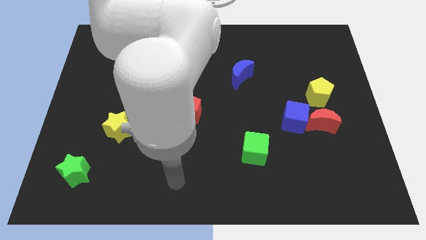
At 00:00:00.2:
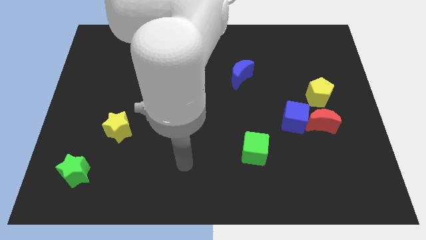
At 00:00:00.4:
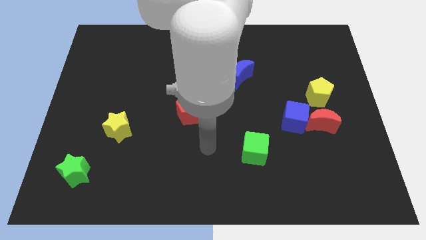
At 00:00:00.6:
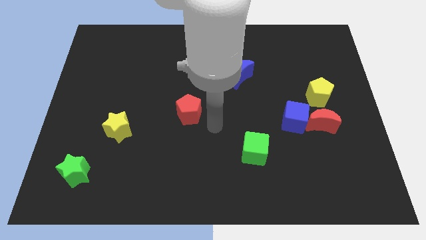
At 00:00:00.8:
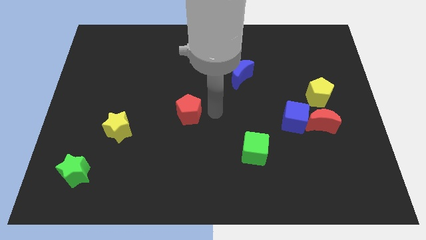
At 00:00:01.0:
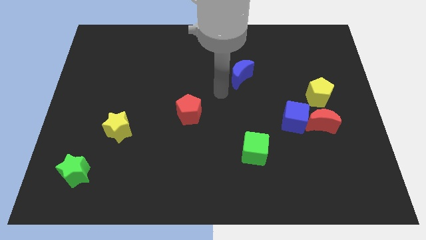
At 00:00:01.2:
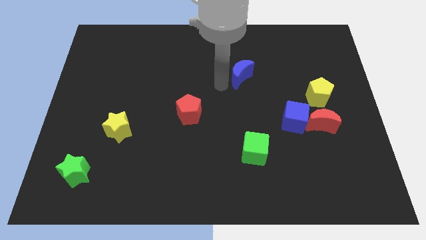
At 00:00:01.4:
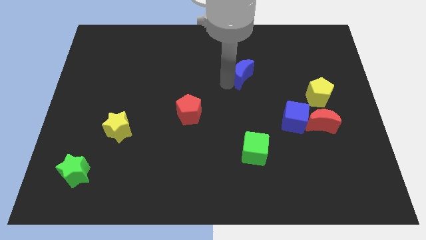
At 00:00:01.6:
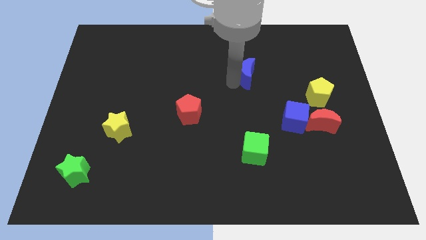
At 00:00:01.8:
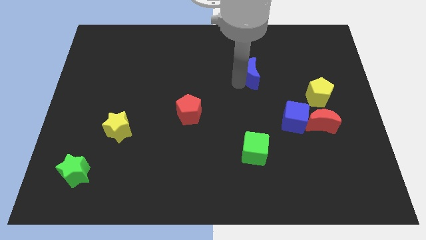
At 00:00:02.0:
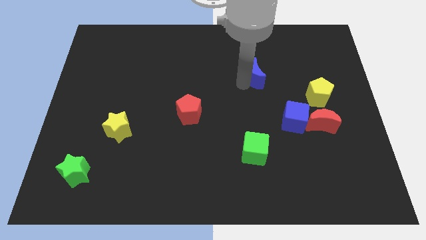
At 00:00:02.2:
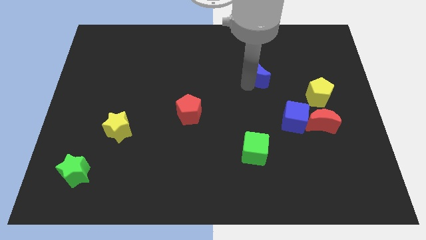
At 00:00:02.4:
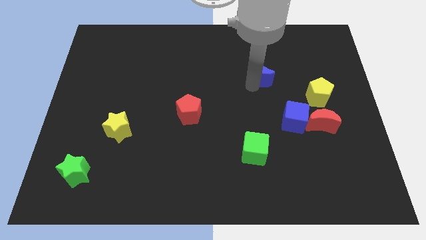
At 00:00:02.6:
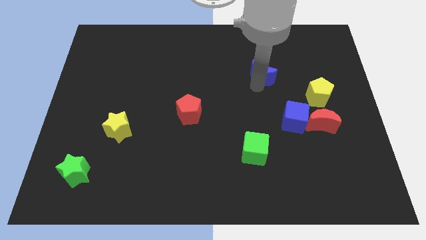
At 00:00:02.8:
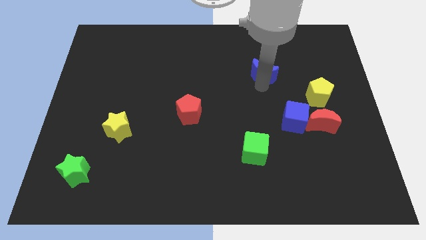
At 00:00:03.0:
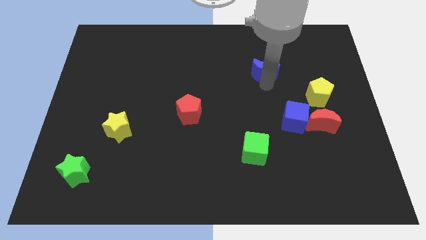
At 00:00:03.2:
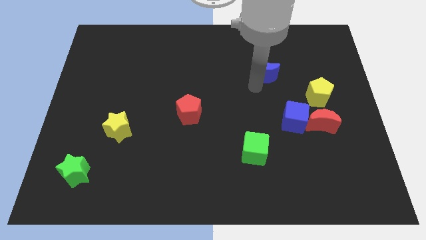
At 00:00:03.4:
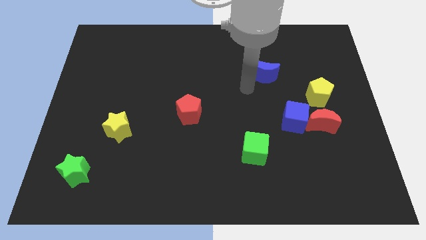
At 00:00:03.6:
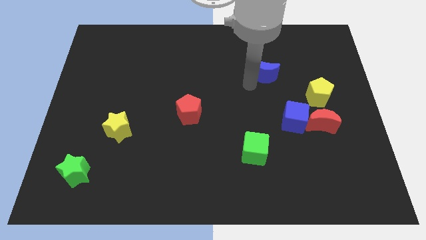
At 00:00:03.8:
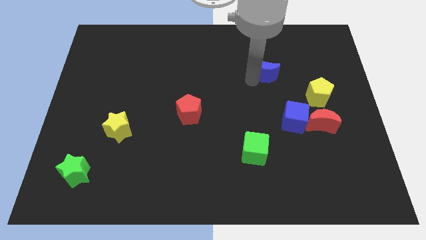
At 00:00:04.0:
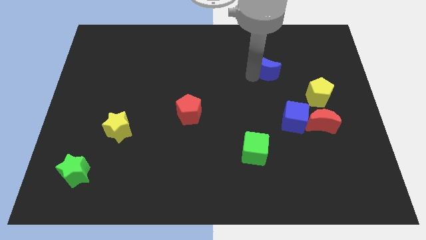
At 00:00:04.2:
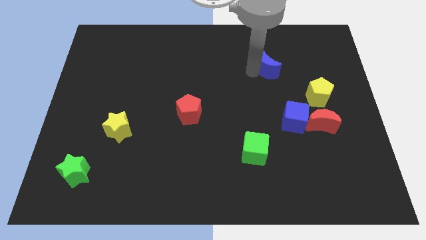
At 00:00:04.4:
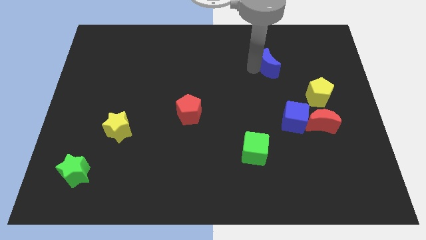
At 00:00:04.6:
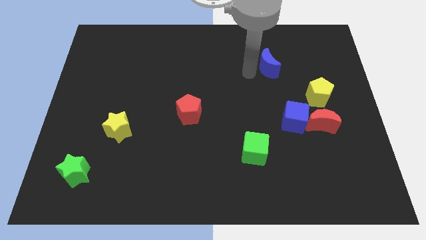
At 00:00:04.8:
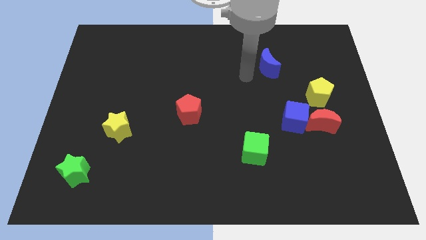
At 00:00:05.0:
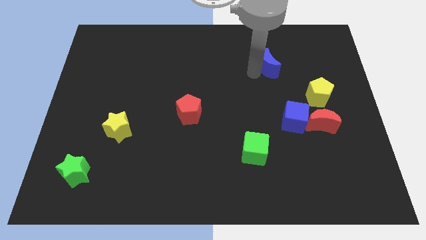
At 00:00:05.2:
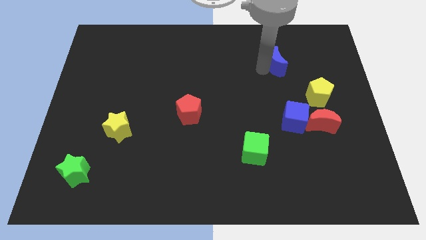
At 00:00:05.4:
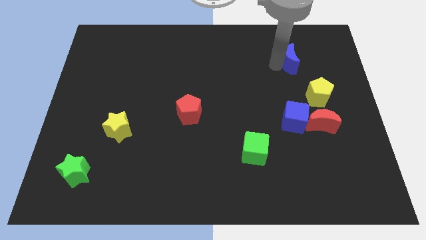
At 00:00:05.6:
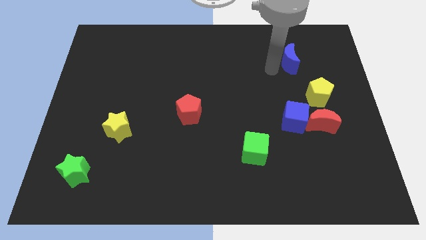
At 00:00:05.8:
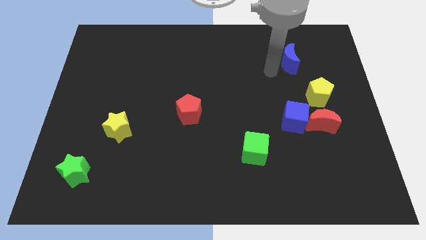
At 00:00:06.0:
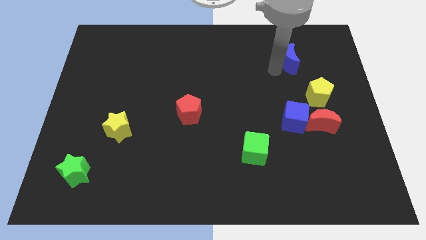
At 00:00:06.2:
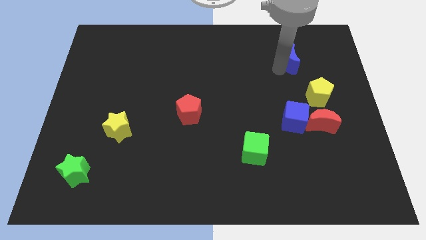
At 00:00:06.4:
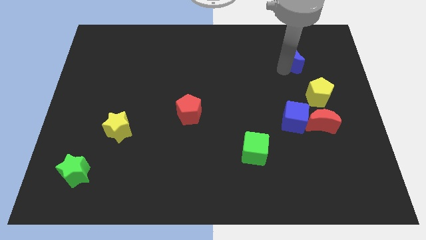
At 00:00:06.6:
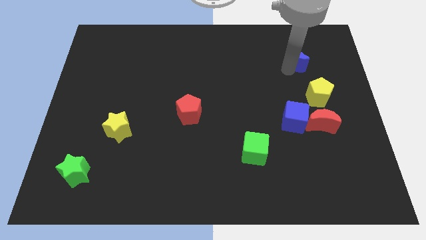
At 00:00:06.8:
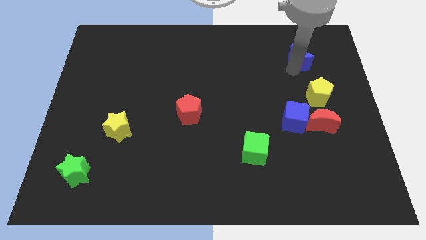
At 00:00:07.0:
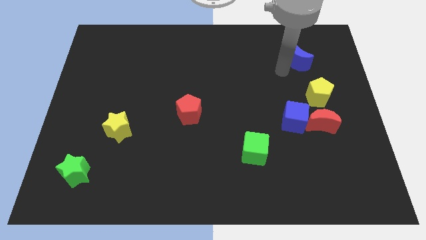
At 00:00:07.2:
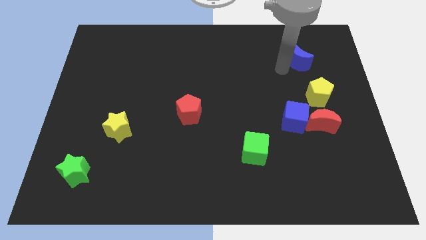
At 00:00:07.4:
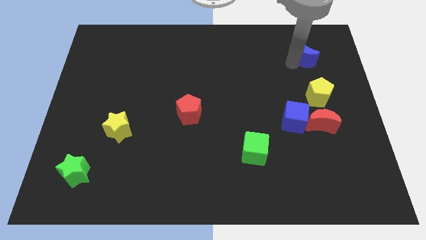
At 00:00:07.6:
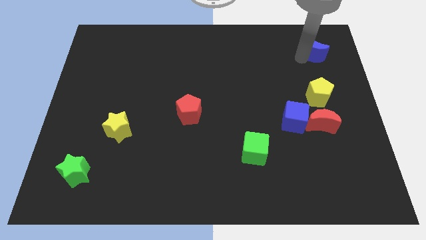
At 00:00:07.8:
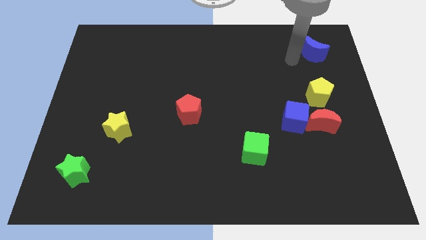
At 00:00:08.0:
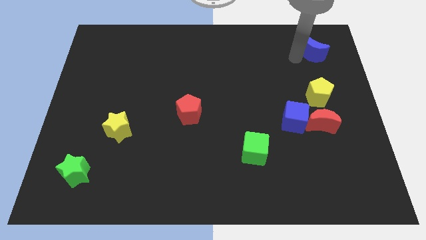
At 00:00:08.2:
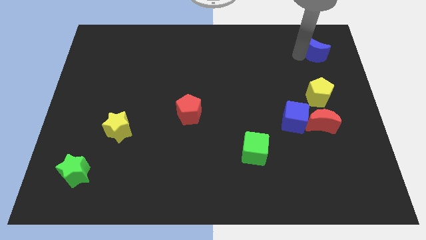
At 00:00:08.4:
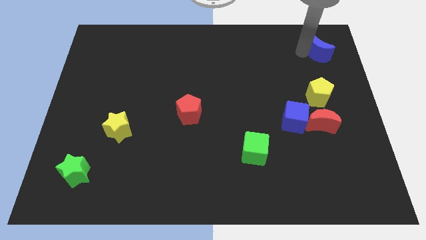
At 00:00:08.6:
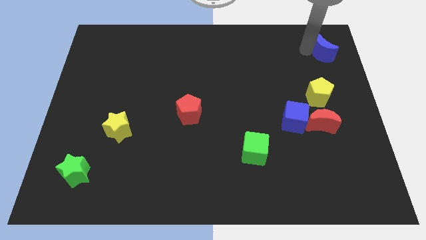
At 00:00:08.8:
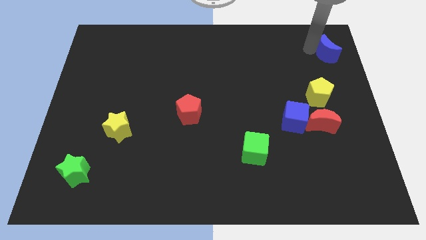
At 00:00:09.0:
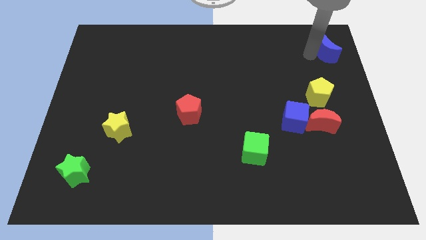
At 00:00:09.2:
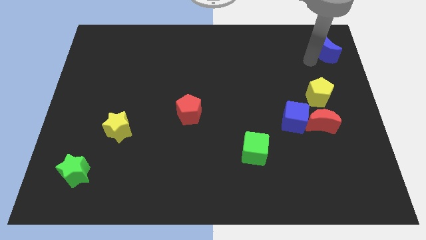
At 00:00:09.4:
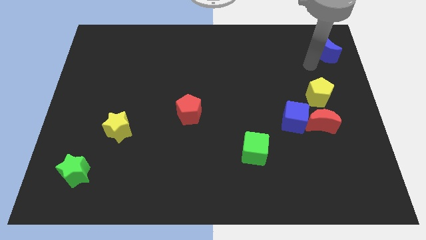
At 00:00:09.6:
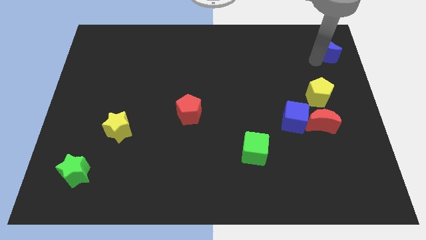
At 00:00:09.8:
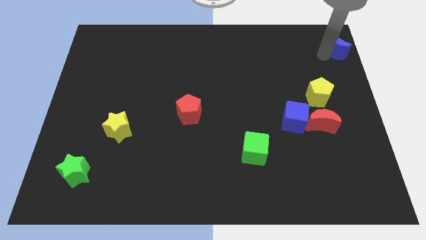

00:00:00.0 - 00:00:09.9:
slide the blue moon to the top right of the board

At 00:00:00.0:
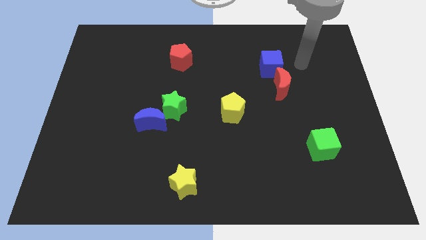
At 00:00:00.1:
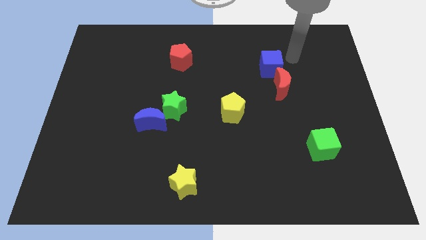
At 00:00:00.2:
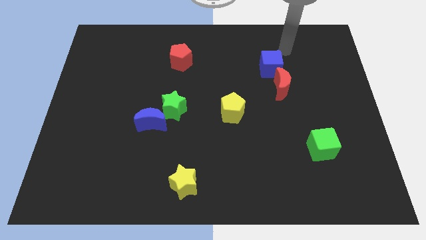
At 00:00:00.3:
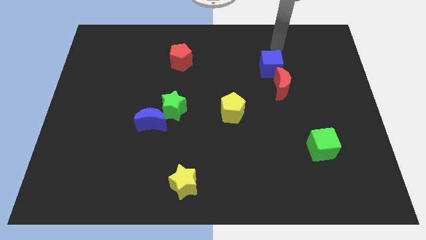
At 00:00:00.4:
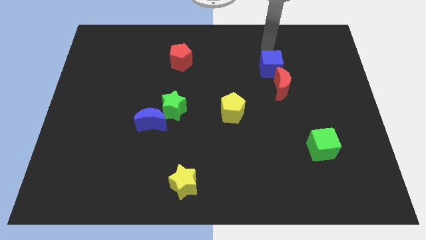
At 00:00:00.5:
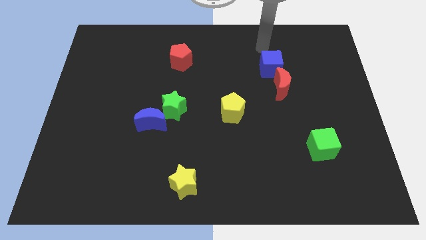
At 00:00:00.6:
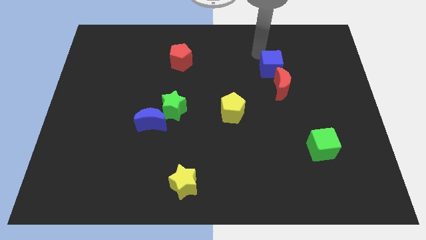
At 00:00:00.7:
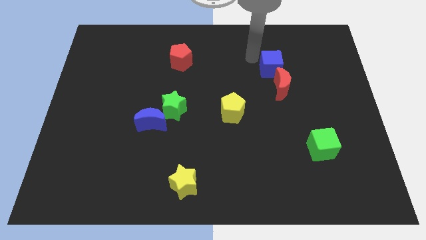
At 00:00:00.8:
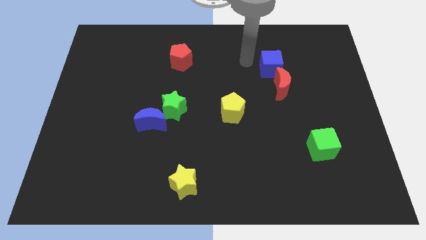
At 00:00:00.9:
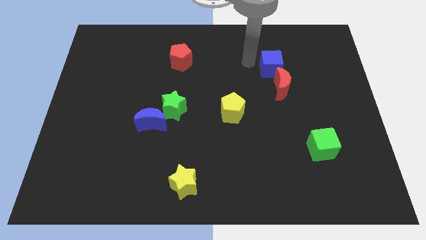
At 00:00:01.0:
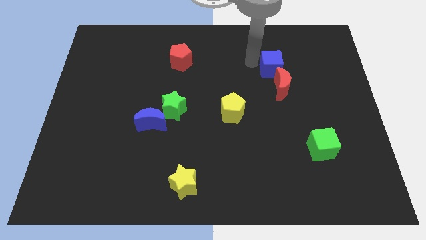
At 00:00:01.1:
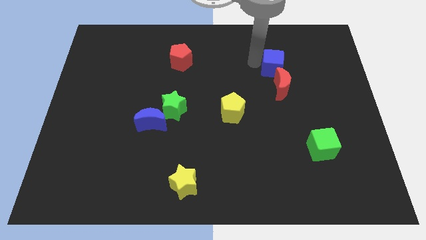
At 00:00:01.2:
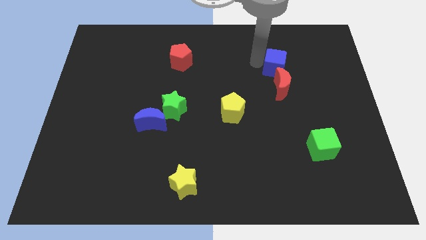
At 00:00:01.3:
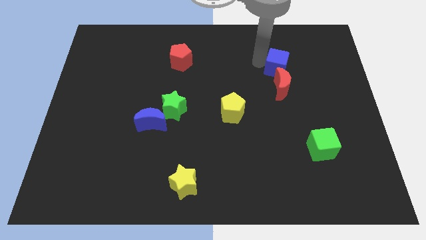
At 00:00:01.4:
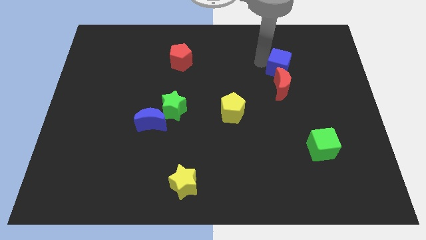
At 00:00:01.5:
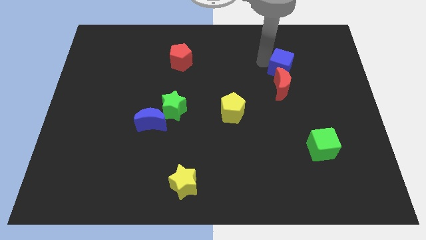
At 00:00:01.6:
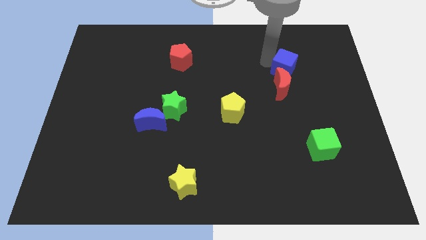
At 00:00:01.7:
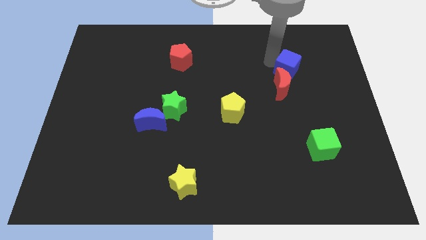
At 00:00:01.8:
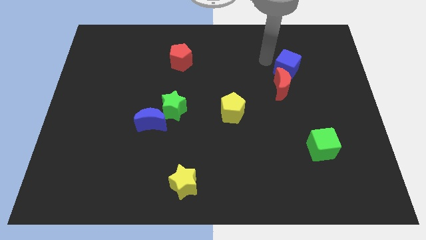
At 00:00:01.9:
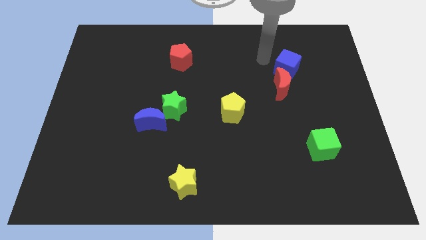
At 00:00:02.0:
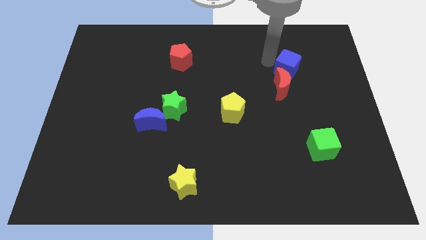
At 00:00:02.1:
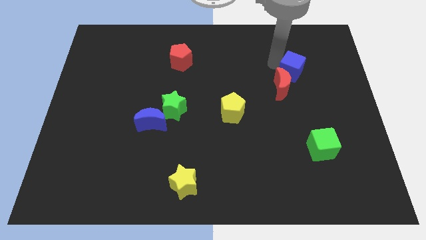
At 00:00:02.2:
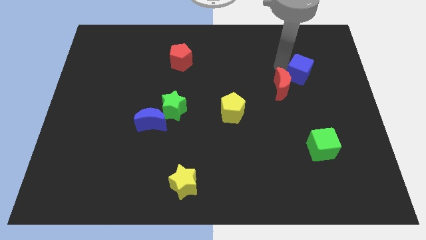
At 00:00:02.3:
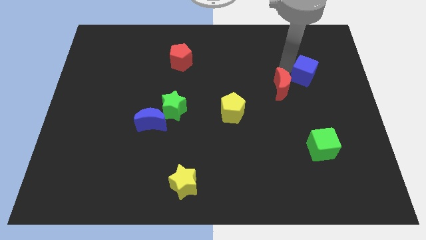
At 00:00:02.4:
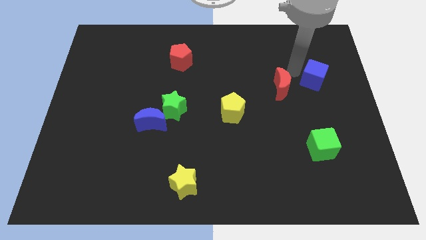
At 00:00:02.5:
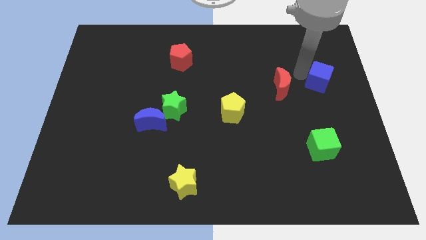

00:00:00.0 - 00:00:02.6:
move the blue cube to the right side

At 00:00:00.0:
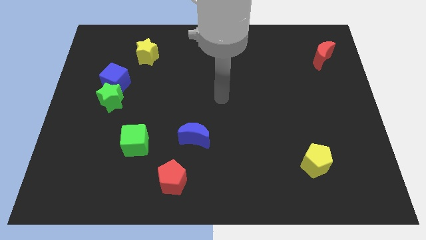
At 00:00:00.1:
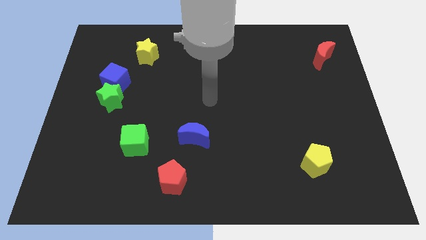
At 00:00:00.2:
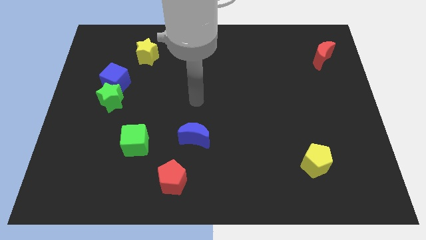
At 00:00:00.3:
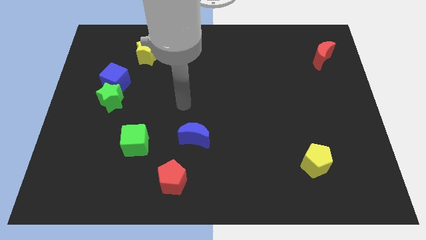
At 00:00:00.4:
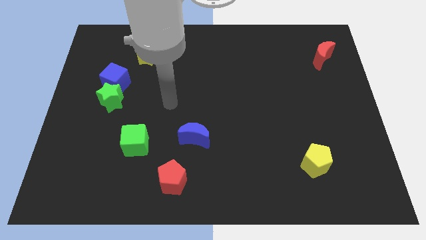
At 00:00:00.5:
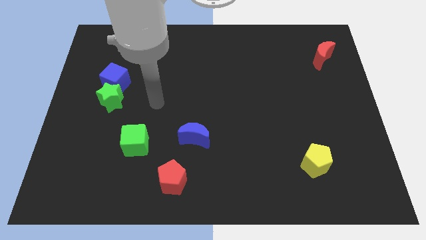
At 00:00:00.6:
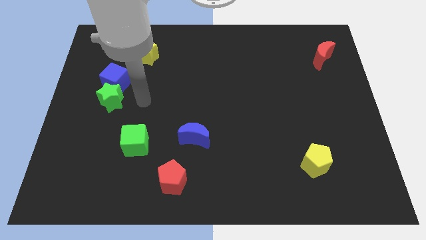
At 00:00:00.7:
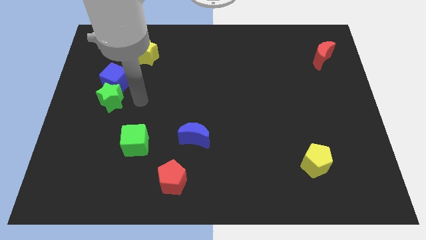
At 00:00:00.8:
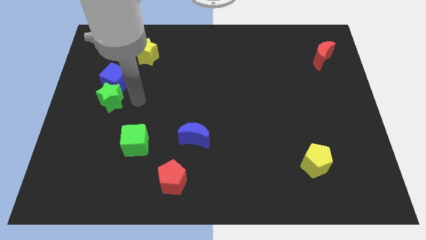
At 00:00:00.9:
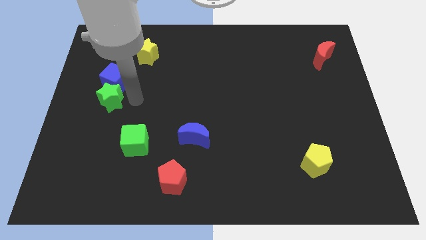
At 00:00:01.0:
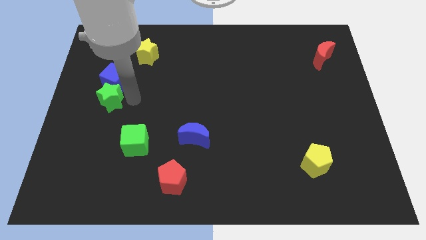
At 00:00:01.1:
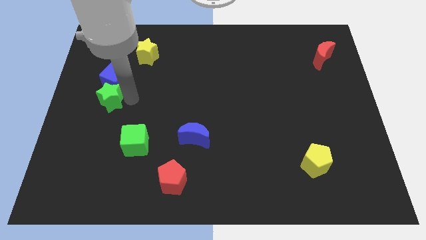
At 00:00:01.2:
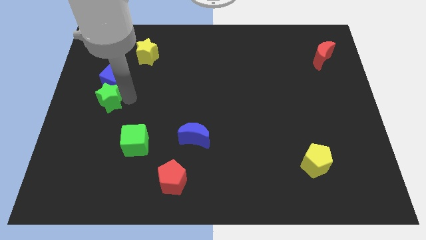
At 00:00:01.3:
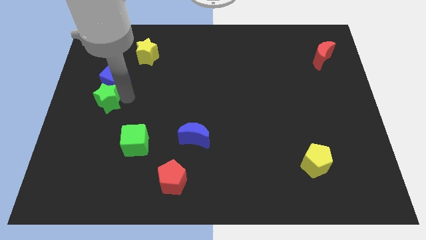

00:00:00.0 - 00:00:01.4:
move the green star to the left side of the board
